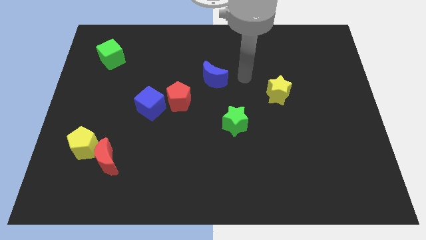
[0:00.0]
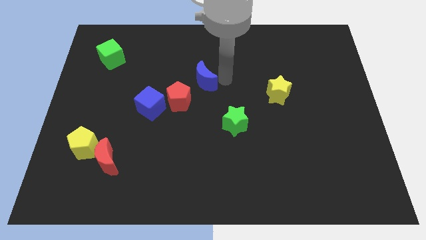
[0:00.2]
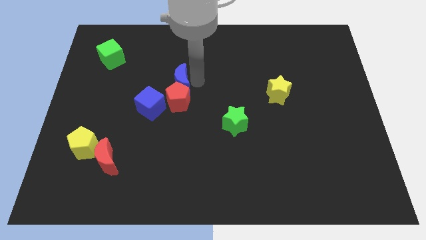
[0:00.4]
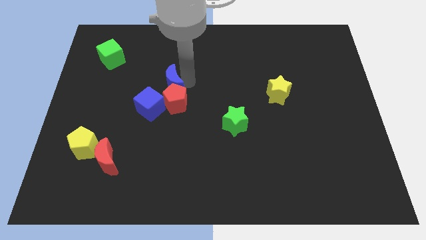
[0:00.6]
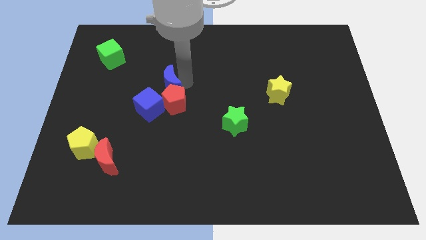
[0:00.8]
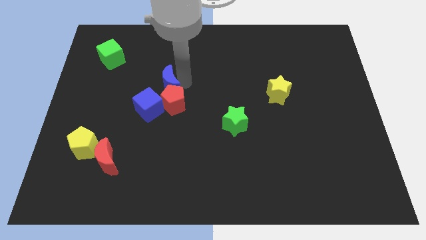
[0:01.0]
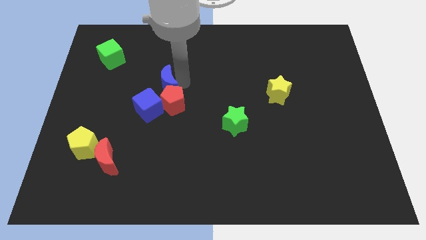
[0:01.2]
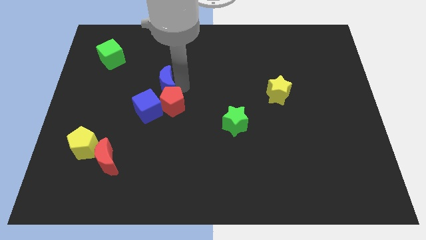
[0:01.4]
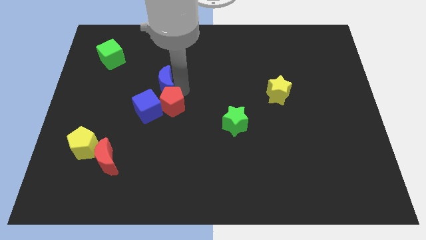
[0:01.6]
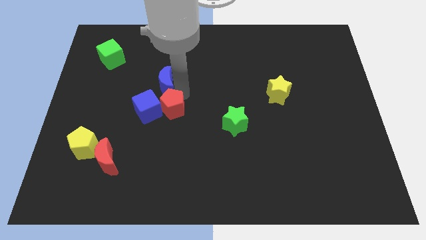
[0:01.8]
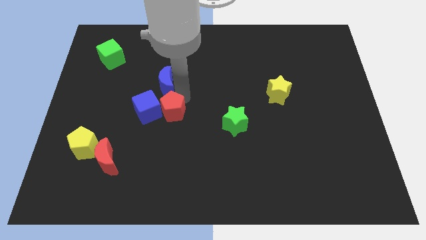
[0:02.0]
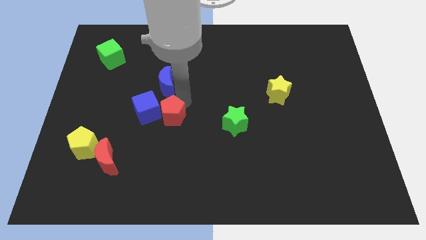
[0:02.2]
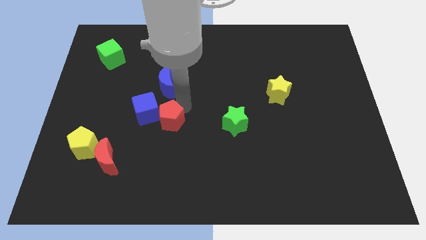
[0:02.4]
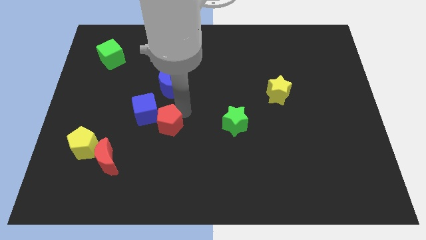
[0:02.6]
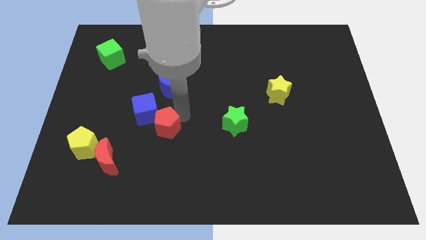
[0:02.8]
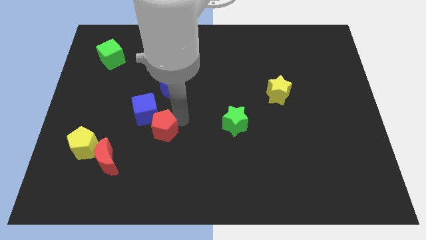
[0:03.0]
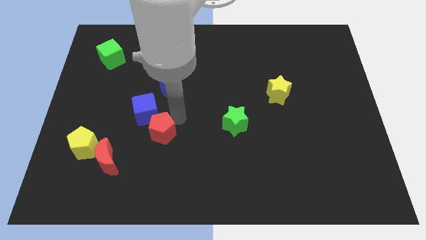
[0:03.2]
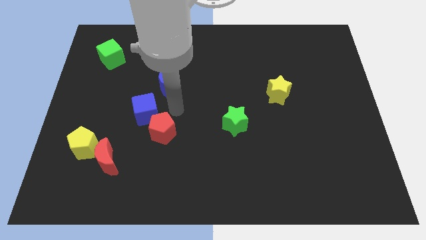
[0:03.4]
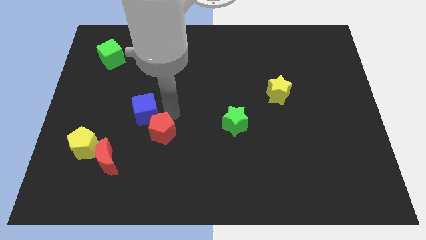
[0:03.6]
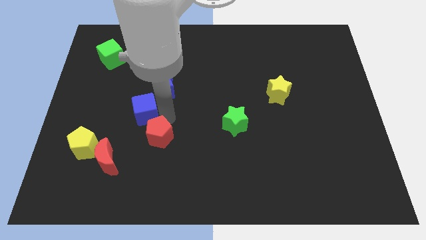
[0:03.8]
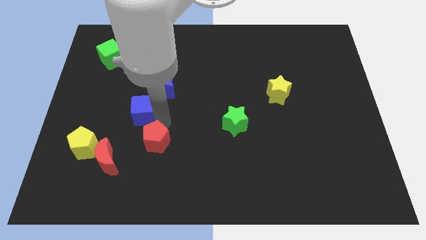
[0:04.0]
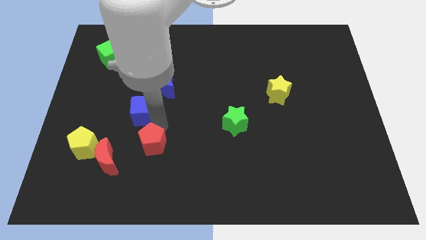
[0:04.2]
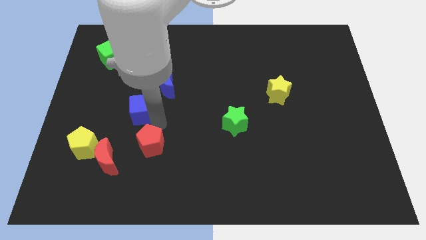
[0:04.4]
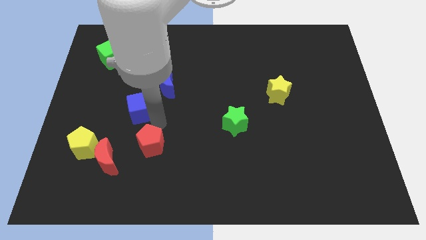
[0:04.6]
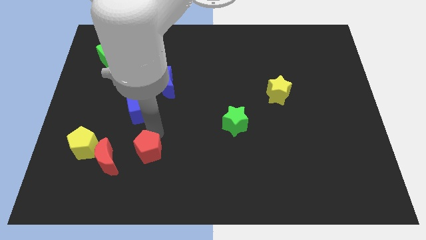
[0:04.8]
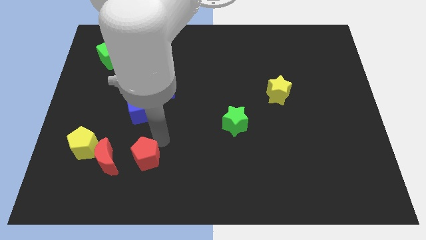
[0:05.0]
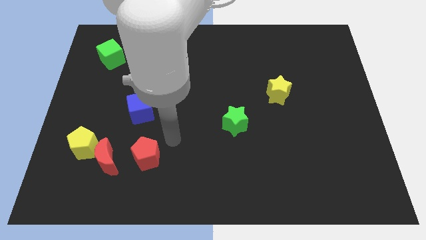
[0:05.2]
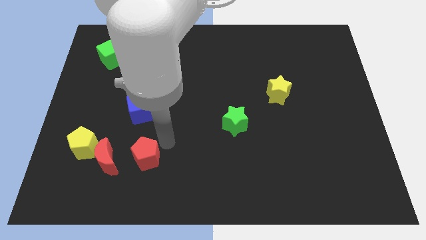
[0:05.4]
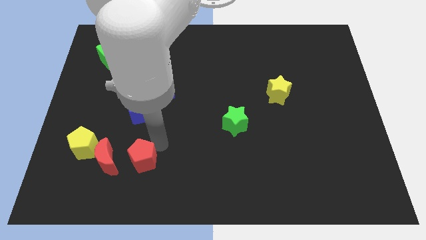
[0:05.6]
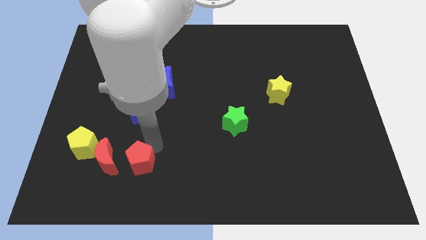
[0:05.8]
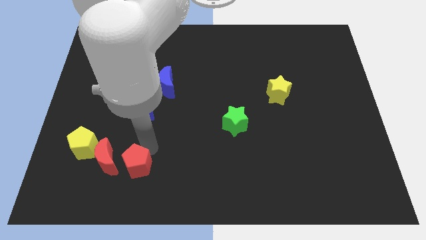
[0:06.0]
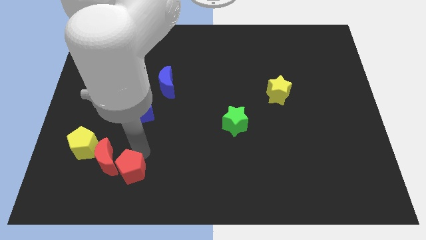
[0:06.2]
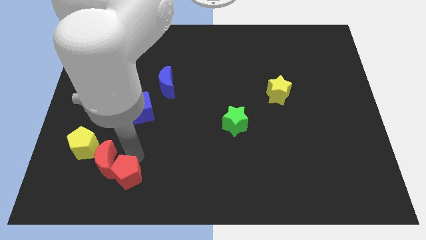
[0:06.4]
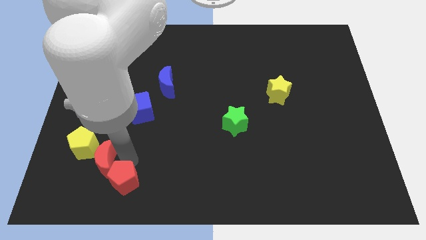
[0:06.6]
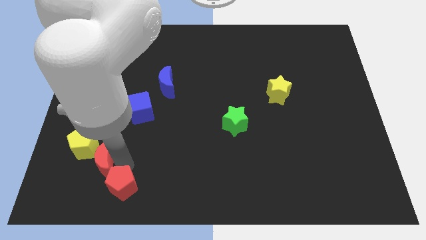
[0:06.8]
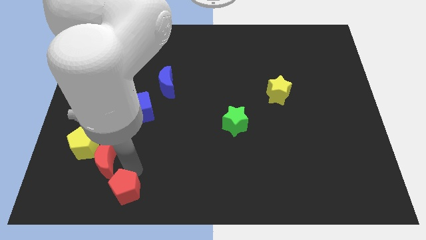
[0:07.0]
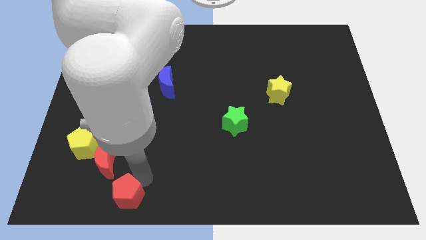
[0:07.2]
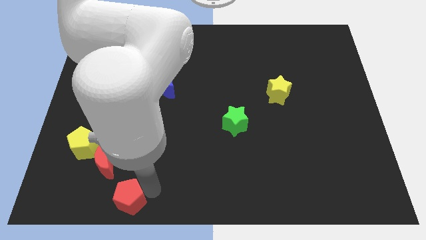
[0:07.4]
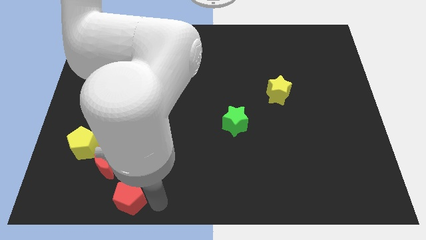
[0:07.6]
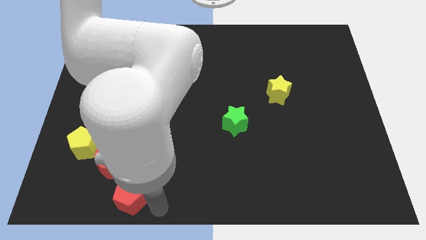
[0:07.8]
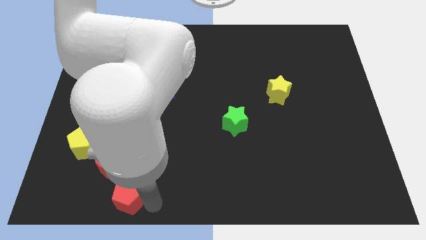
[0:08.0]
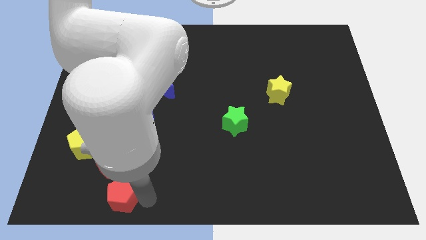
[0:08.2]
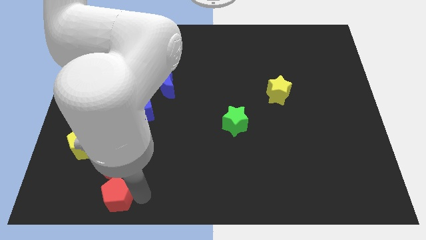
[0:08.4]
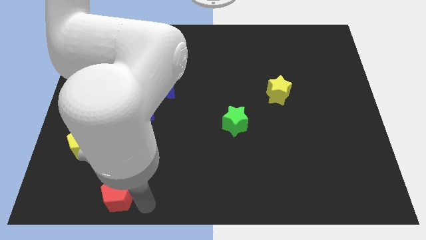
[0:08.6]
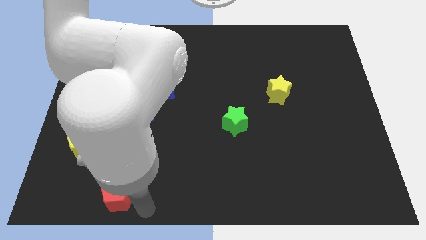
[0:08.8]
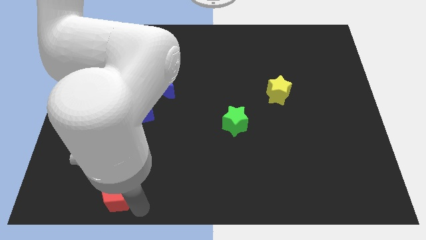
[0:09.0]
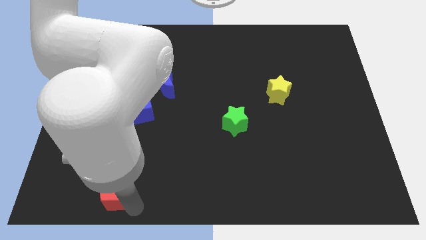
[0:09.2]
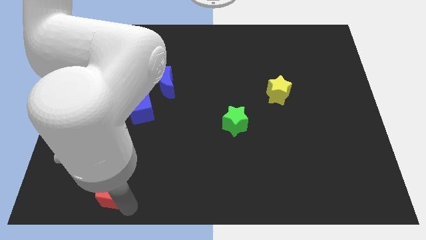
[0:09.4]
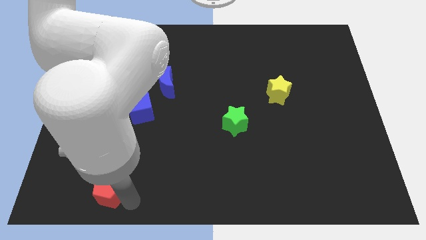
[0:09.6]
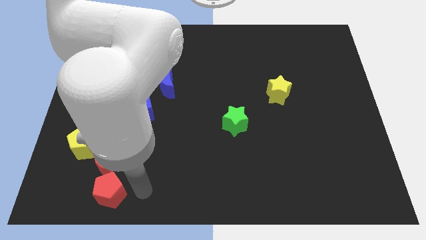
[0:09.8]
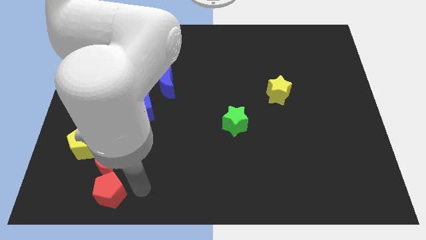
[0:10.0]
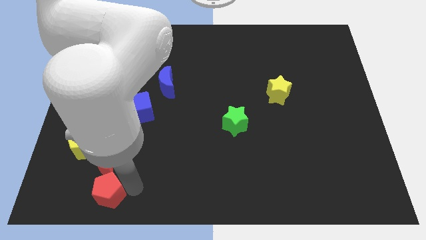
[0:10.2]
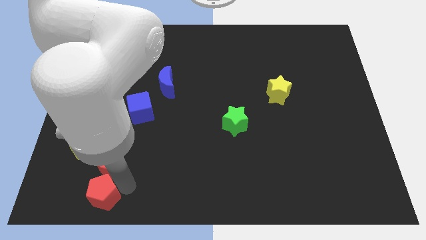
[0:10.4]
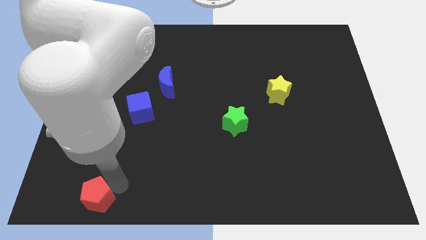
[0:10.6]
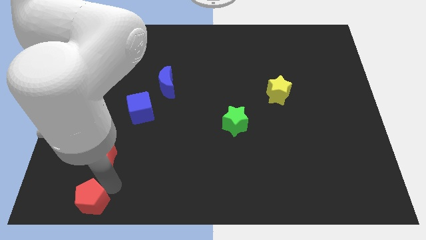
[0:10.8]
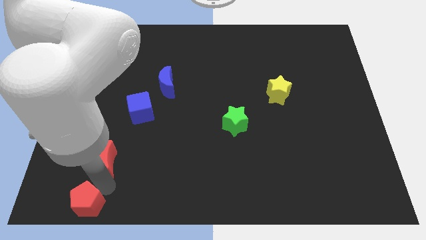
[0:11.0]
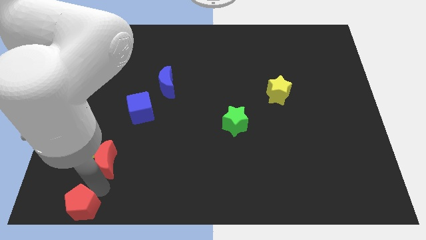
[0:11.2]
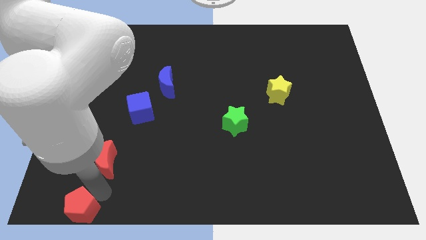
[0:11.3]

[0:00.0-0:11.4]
slide the red pentagon to the bottom left of the board

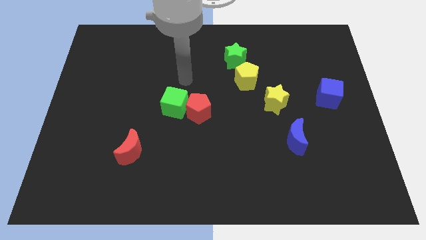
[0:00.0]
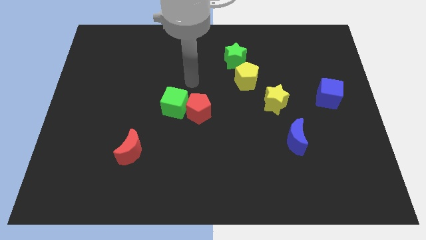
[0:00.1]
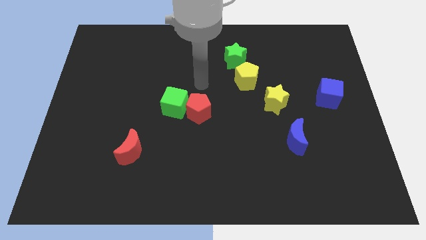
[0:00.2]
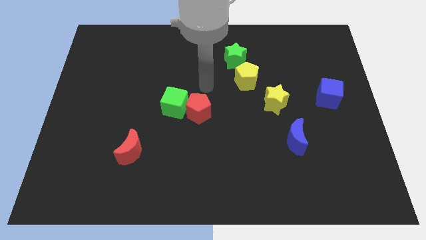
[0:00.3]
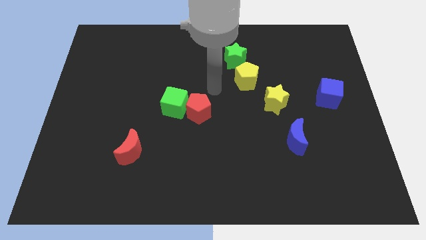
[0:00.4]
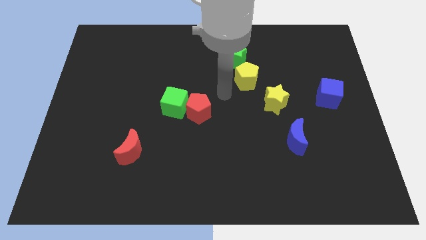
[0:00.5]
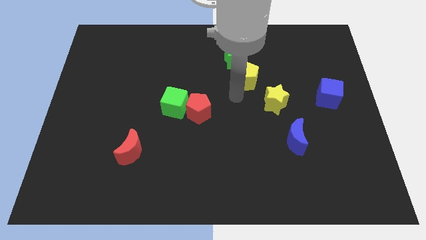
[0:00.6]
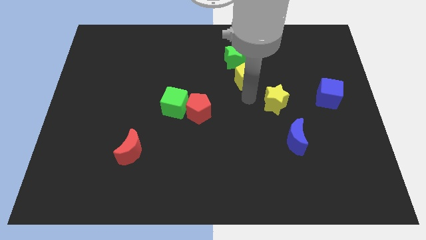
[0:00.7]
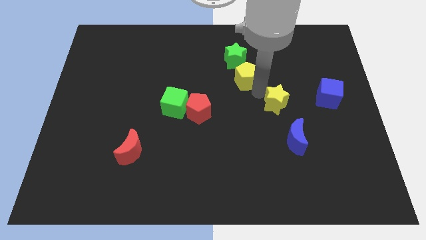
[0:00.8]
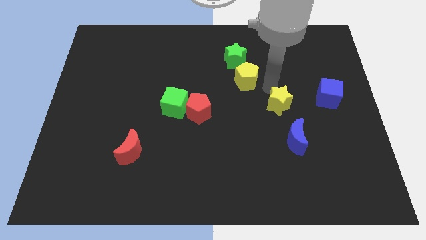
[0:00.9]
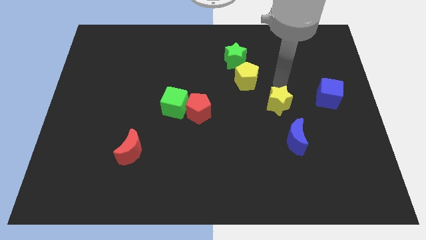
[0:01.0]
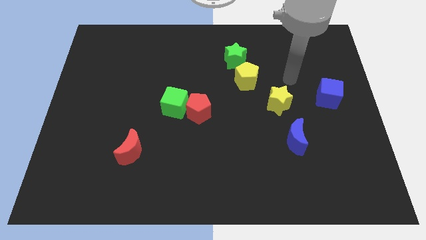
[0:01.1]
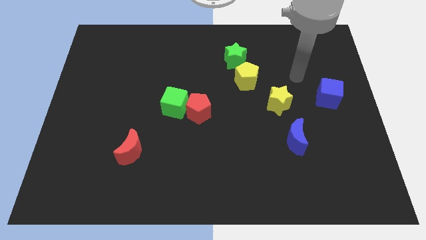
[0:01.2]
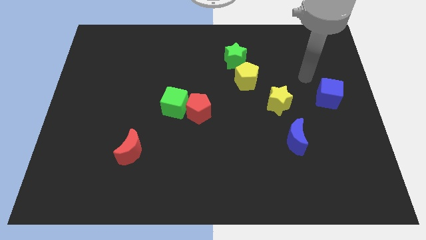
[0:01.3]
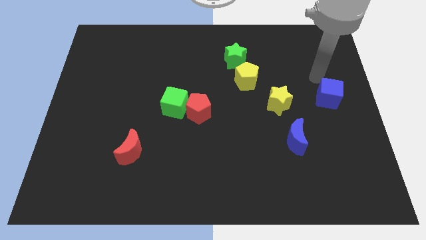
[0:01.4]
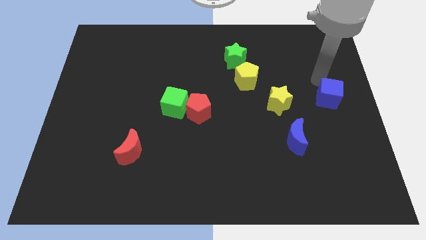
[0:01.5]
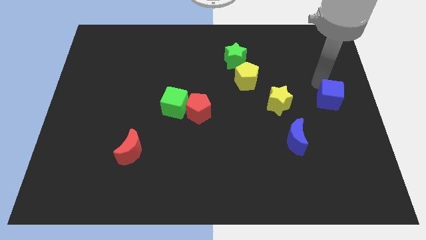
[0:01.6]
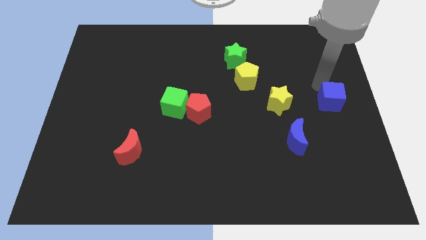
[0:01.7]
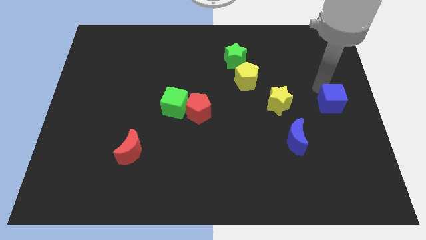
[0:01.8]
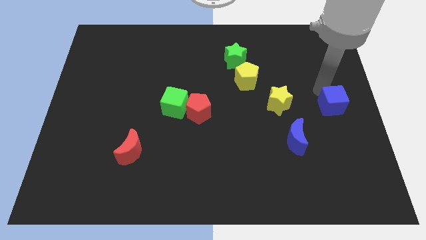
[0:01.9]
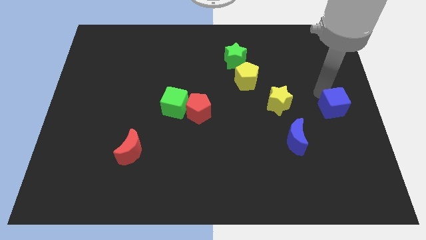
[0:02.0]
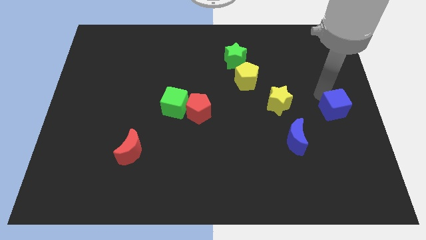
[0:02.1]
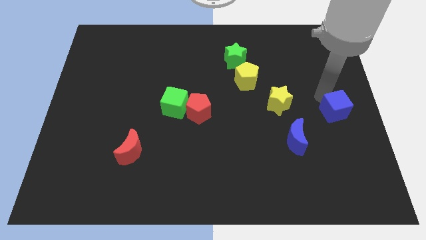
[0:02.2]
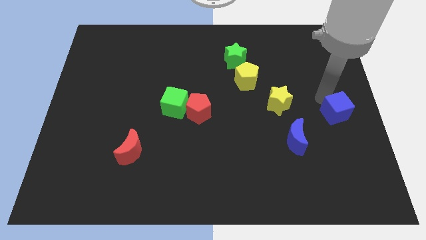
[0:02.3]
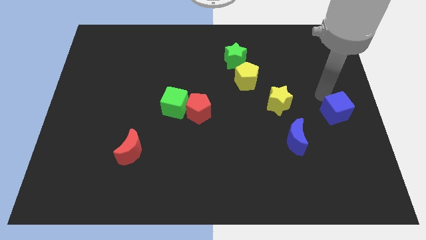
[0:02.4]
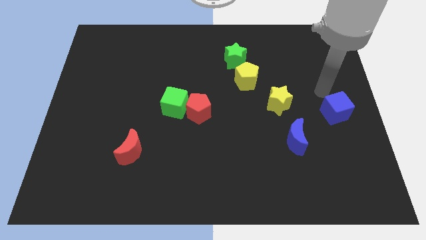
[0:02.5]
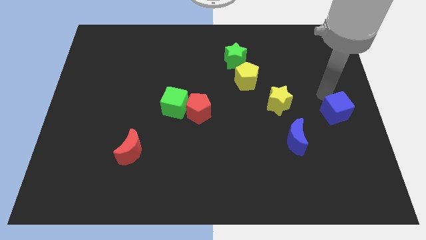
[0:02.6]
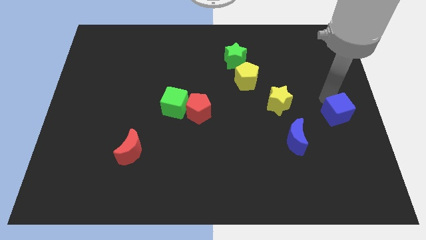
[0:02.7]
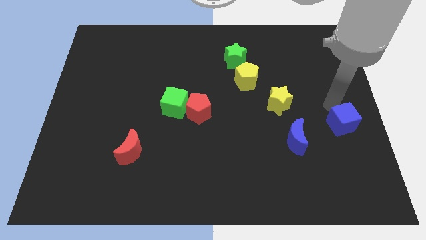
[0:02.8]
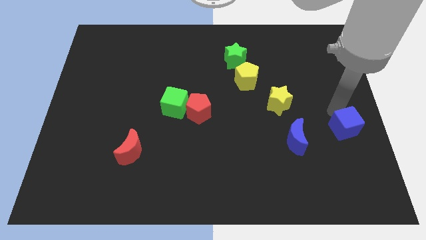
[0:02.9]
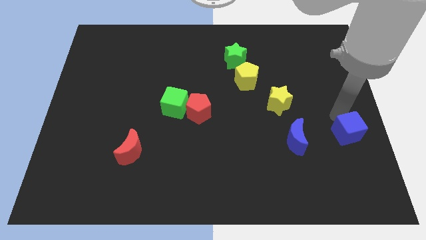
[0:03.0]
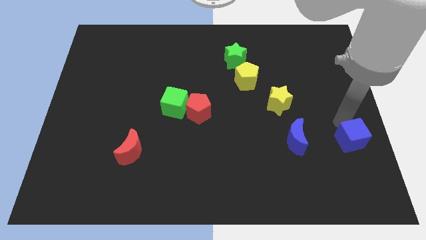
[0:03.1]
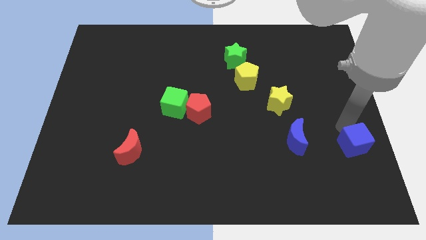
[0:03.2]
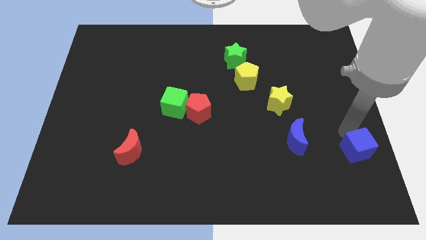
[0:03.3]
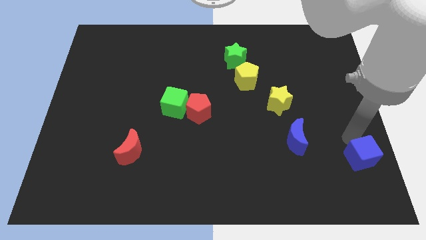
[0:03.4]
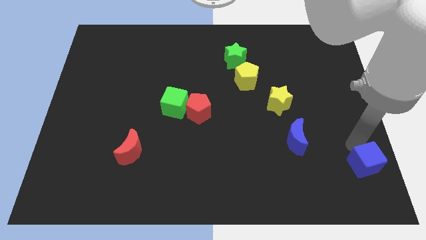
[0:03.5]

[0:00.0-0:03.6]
slide the blue cube to the bottom right of the board
